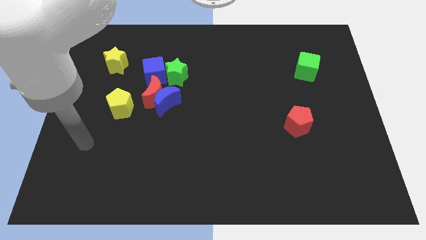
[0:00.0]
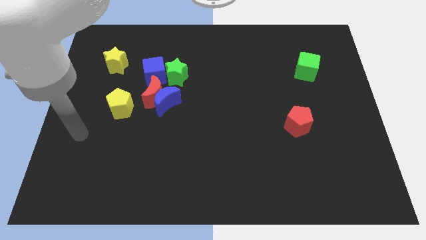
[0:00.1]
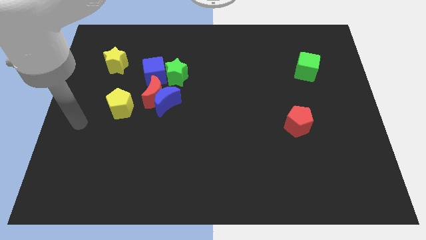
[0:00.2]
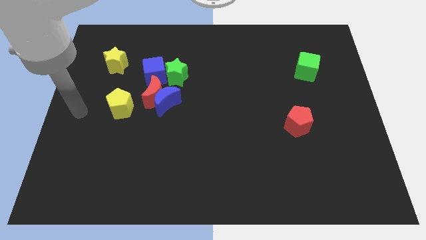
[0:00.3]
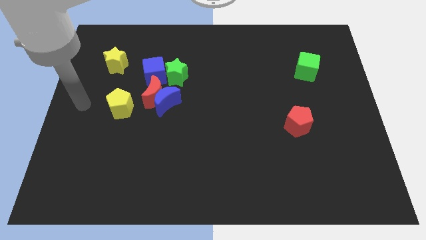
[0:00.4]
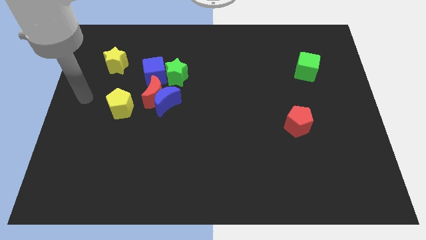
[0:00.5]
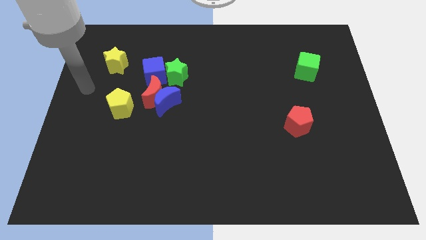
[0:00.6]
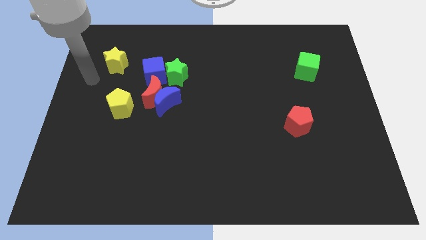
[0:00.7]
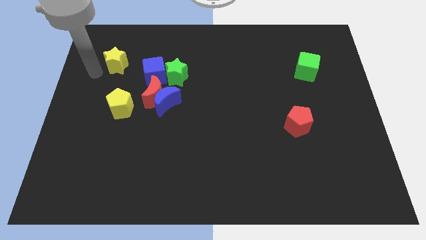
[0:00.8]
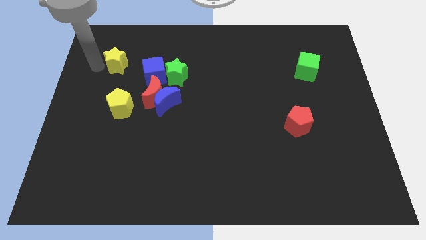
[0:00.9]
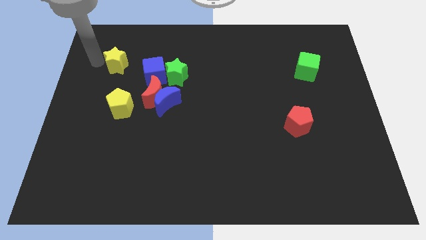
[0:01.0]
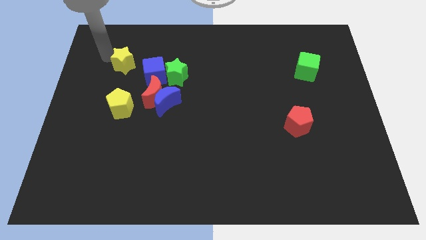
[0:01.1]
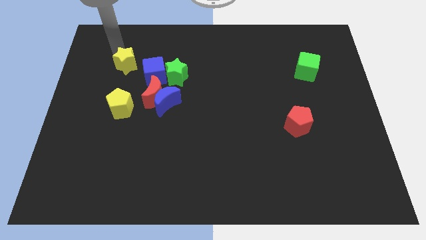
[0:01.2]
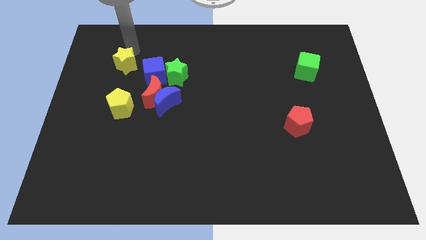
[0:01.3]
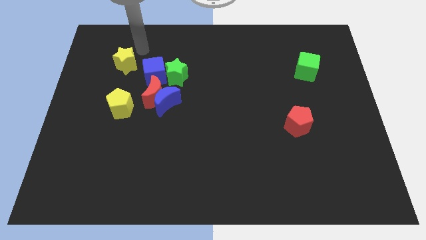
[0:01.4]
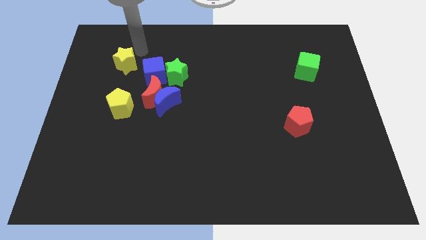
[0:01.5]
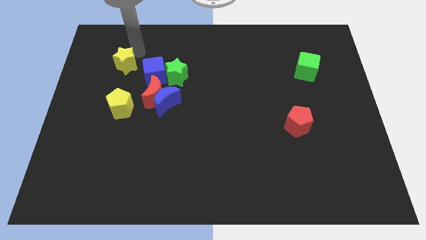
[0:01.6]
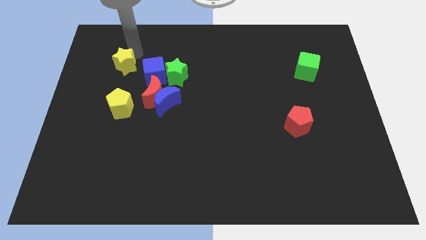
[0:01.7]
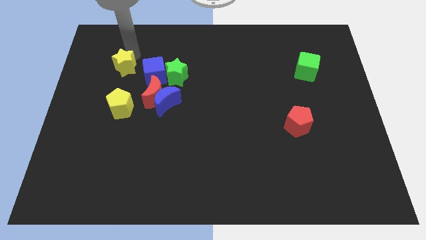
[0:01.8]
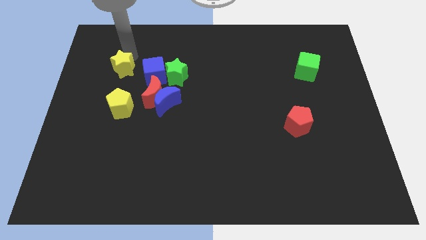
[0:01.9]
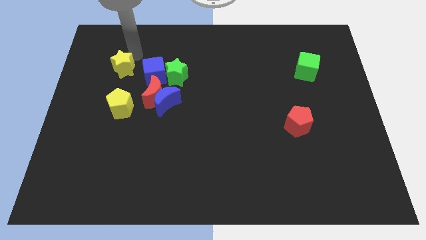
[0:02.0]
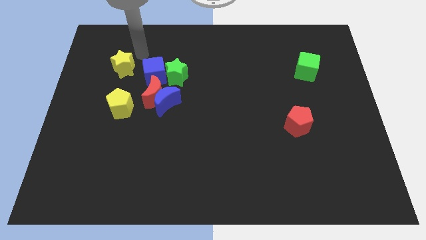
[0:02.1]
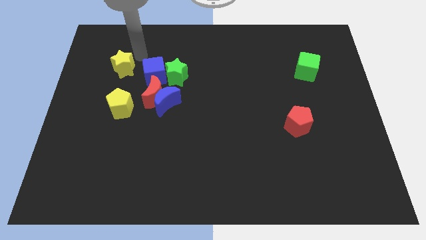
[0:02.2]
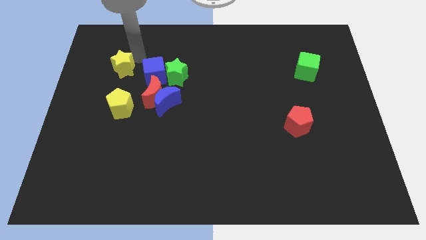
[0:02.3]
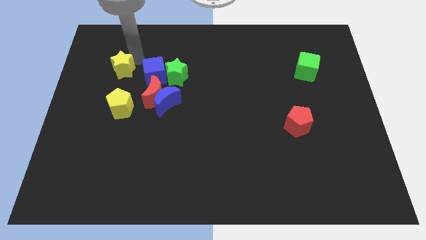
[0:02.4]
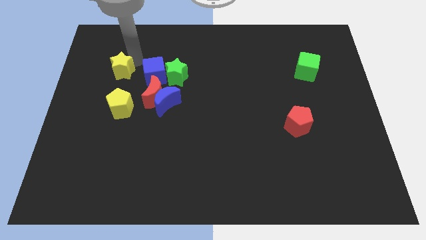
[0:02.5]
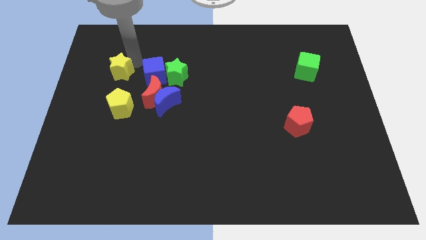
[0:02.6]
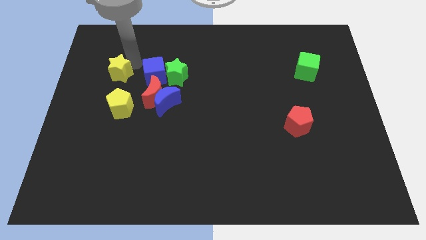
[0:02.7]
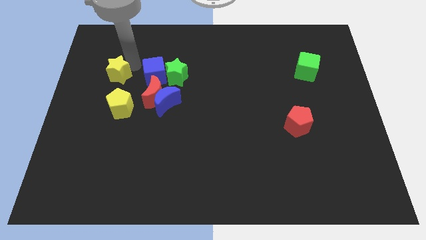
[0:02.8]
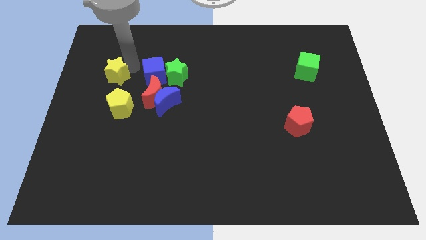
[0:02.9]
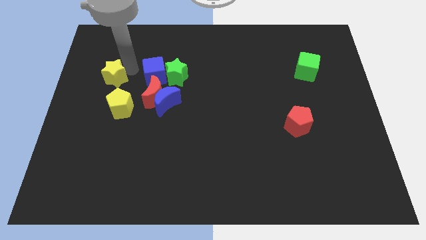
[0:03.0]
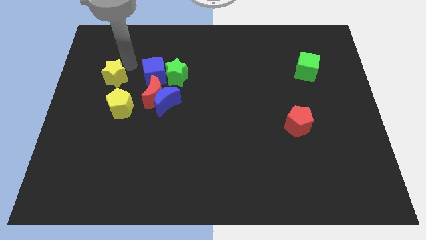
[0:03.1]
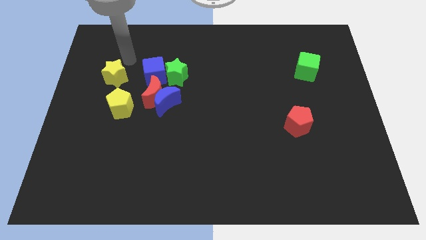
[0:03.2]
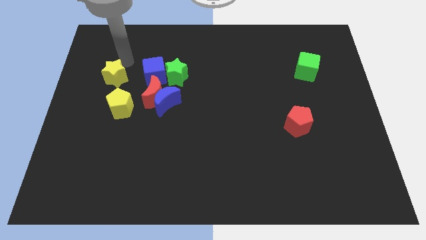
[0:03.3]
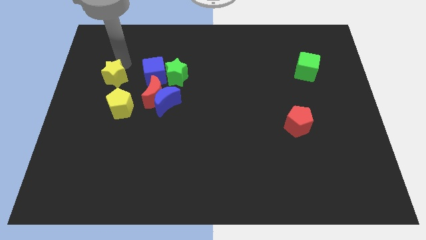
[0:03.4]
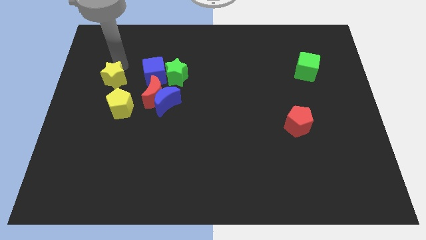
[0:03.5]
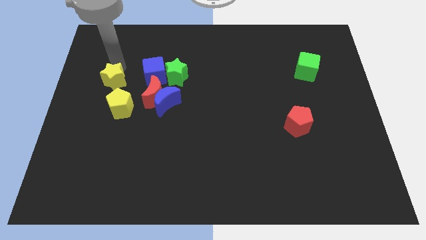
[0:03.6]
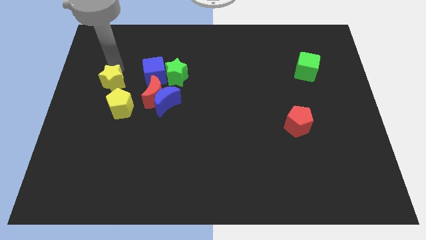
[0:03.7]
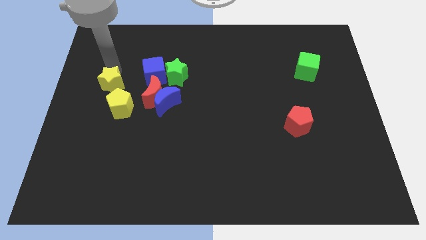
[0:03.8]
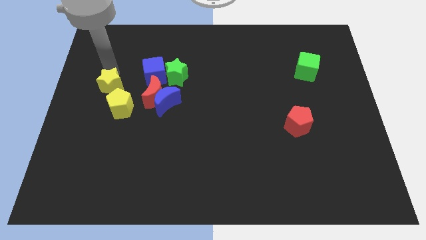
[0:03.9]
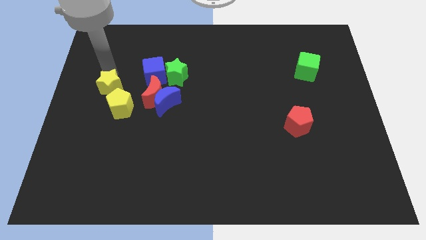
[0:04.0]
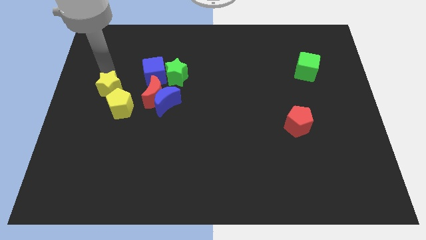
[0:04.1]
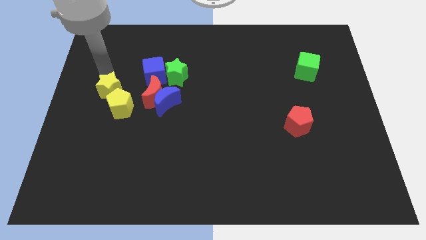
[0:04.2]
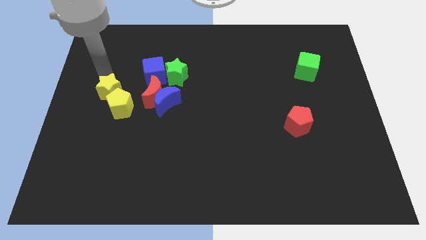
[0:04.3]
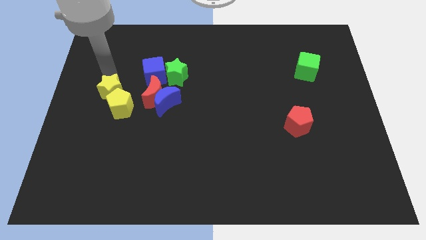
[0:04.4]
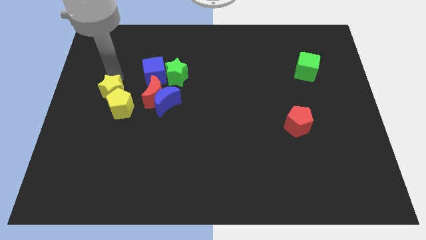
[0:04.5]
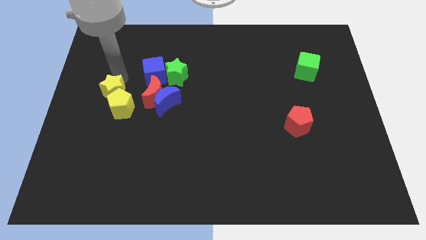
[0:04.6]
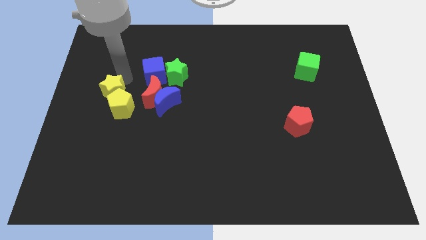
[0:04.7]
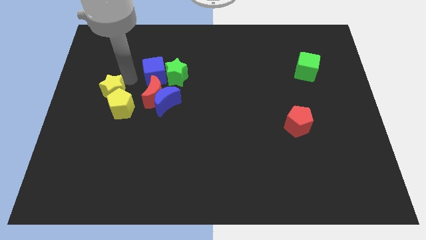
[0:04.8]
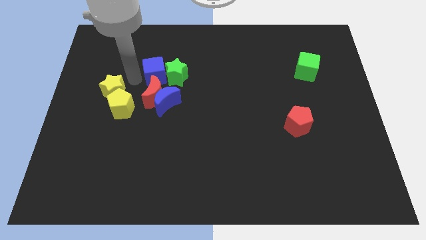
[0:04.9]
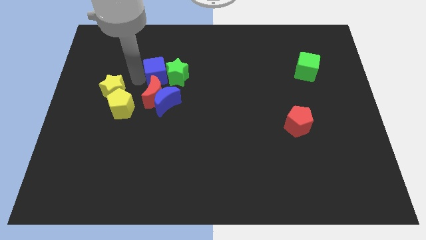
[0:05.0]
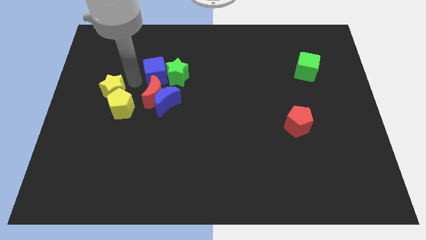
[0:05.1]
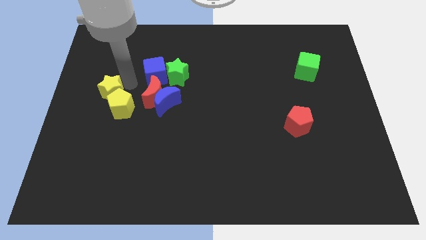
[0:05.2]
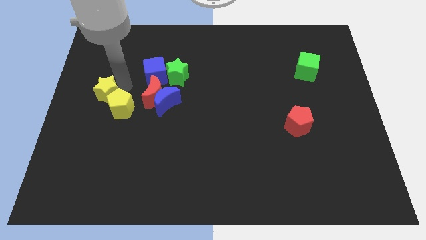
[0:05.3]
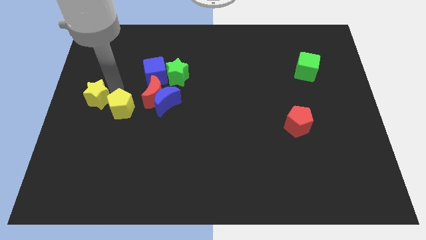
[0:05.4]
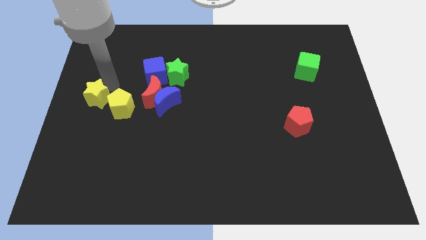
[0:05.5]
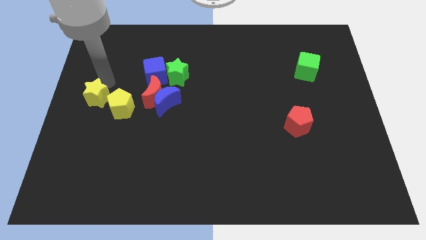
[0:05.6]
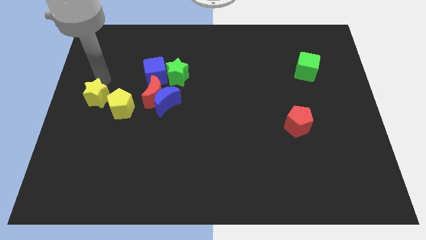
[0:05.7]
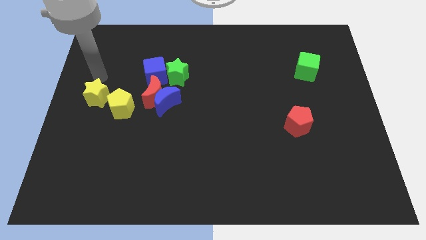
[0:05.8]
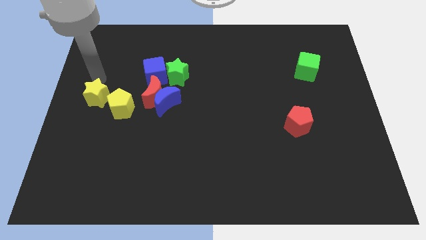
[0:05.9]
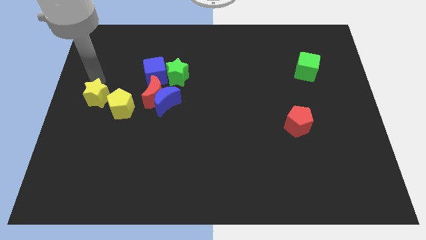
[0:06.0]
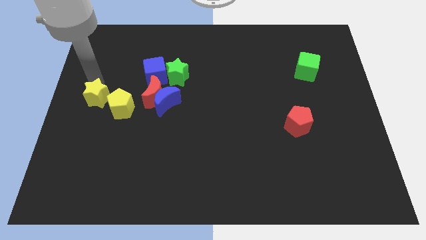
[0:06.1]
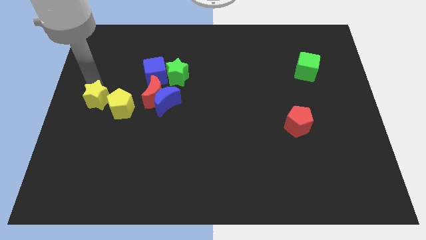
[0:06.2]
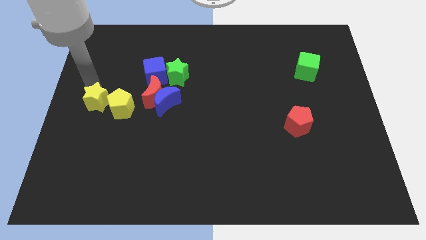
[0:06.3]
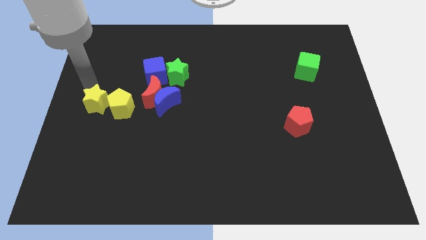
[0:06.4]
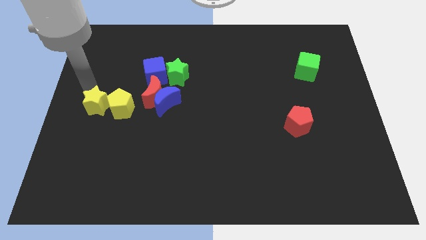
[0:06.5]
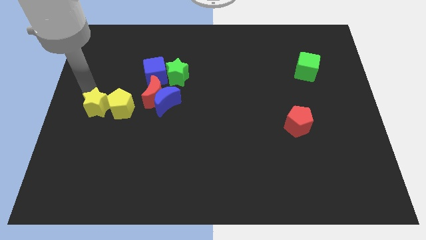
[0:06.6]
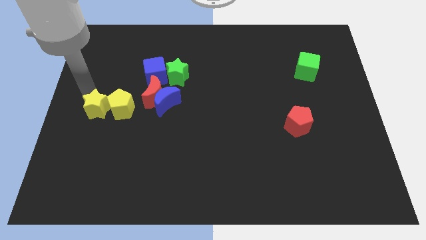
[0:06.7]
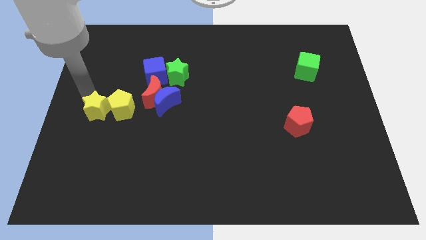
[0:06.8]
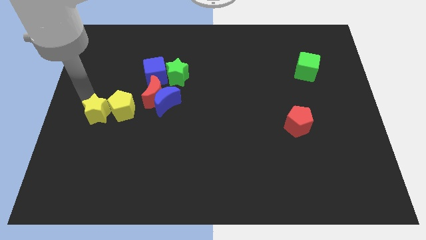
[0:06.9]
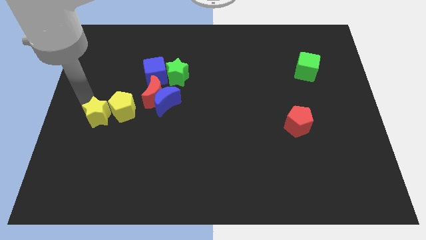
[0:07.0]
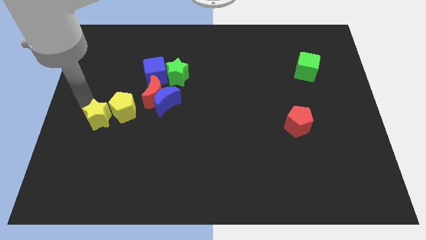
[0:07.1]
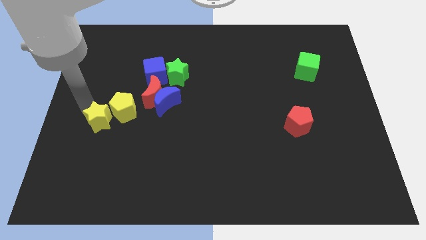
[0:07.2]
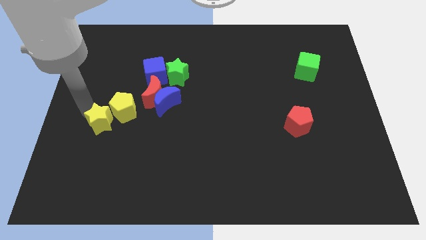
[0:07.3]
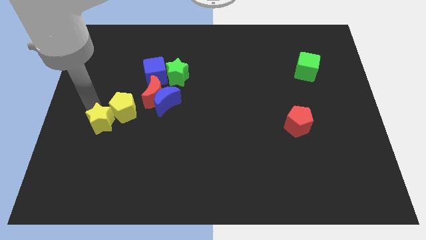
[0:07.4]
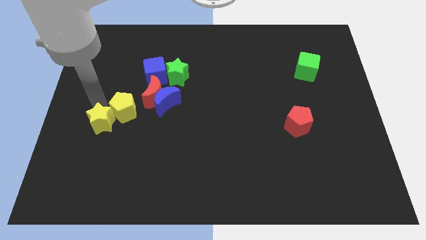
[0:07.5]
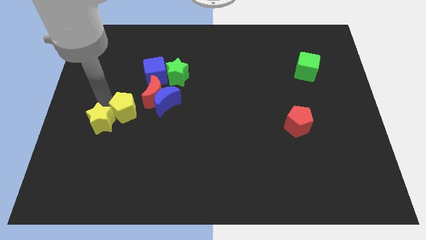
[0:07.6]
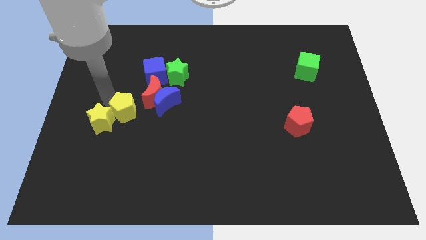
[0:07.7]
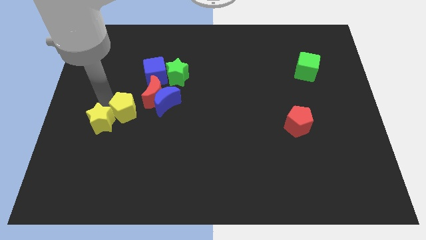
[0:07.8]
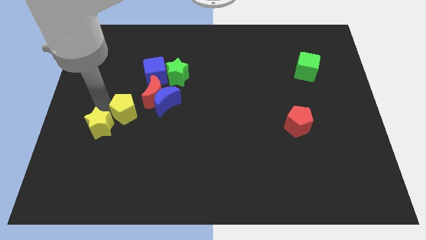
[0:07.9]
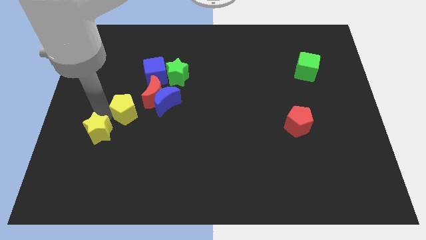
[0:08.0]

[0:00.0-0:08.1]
slide the yellow star downwards
